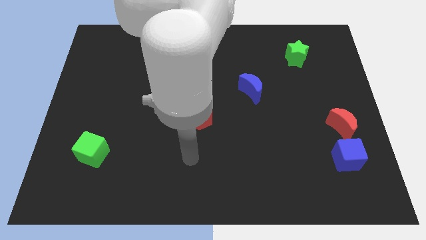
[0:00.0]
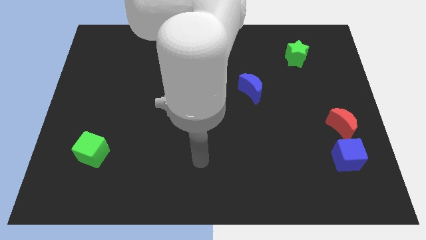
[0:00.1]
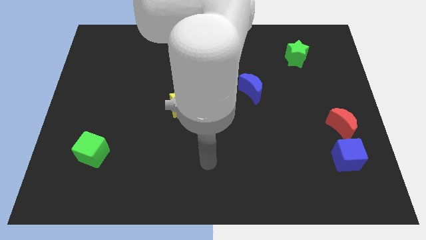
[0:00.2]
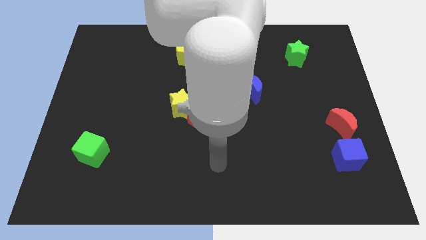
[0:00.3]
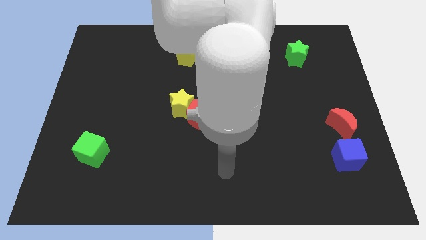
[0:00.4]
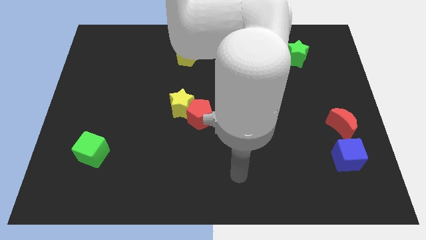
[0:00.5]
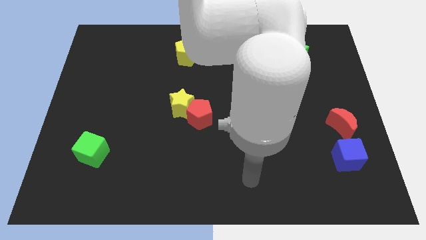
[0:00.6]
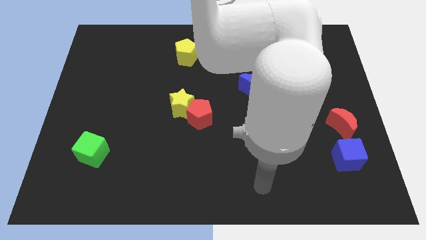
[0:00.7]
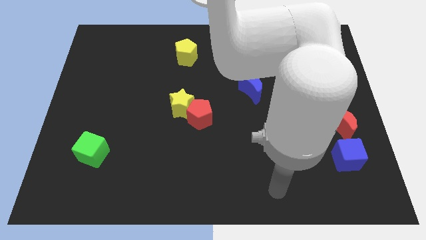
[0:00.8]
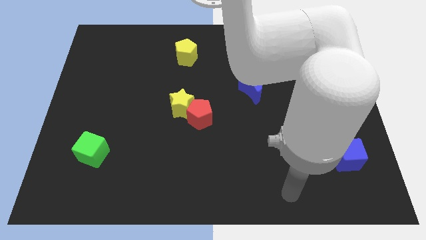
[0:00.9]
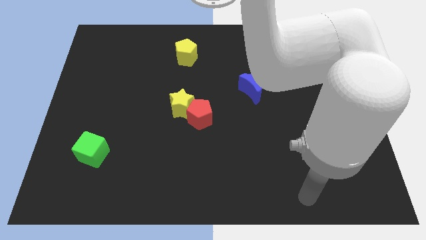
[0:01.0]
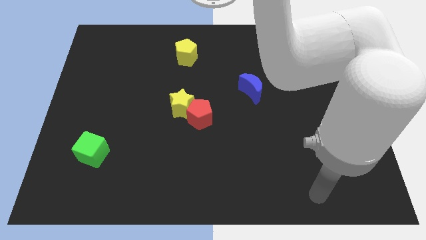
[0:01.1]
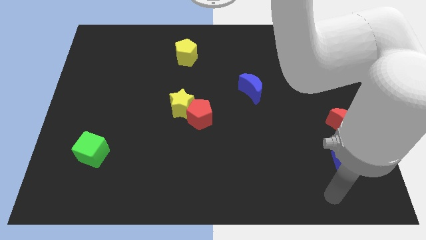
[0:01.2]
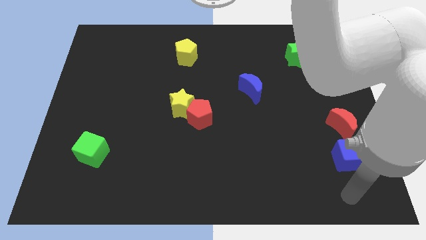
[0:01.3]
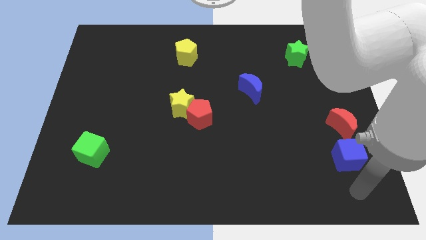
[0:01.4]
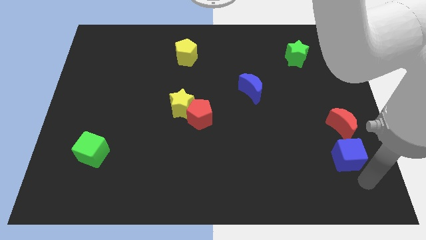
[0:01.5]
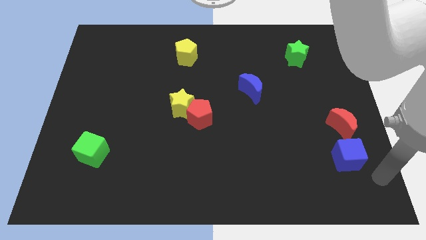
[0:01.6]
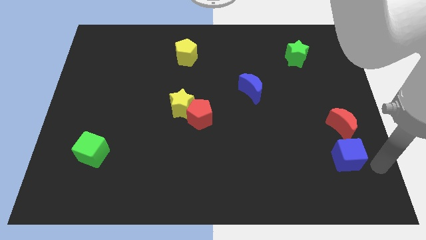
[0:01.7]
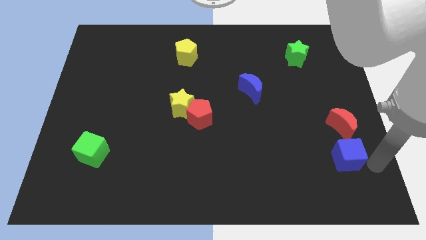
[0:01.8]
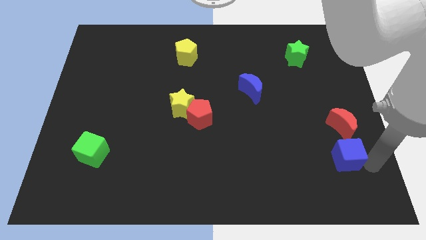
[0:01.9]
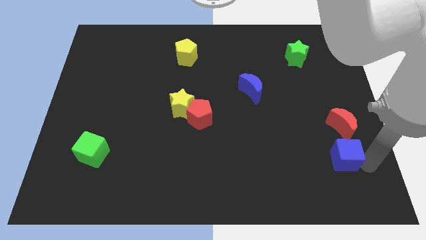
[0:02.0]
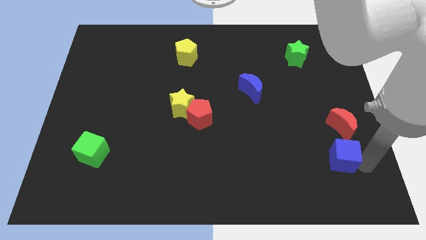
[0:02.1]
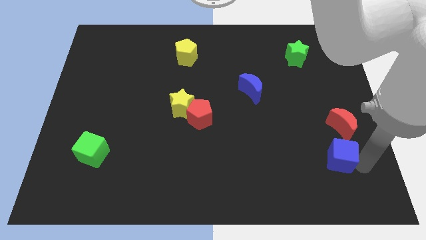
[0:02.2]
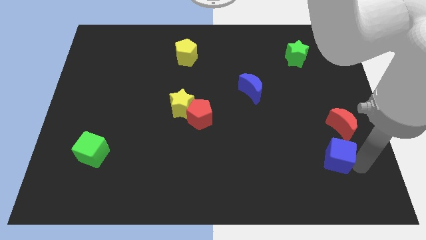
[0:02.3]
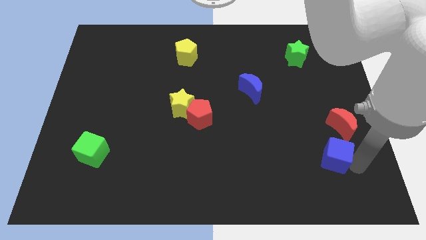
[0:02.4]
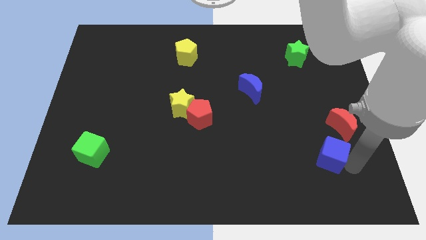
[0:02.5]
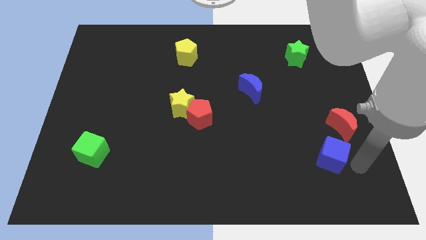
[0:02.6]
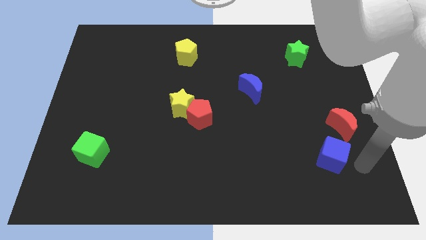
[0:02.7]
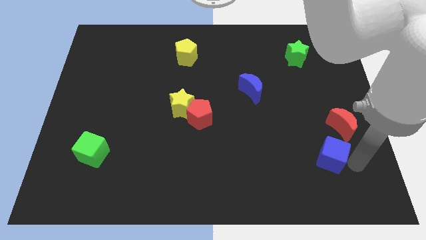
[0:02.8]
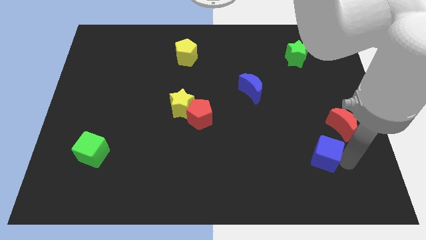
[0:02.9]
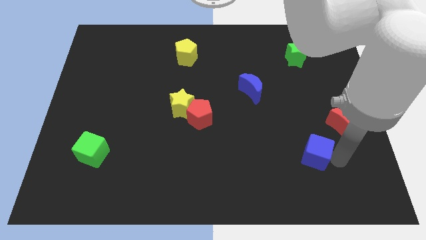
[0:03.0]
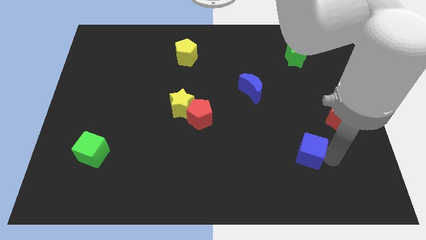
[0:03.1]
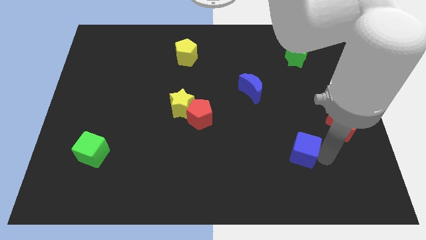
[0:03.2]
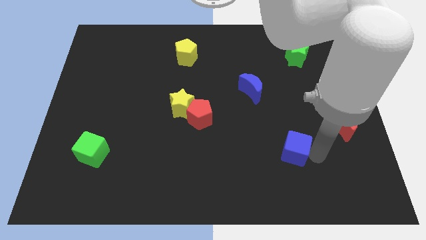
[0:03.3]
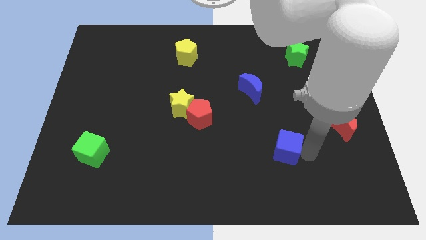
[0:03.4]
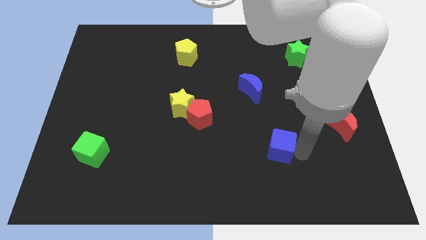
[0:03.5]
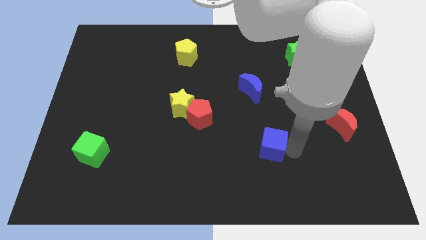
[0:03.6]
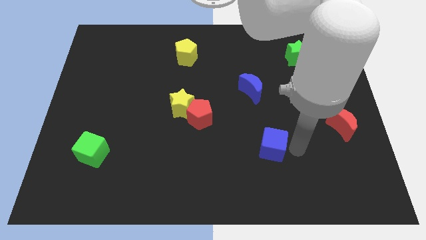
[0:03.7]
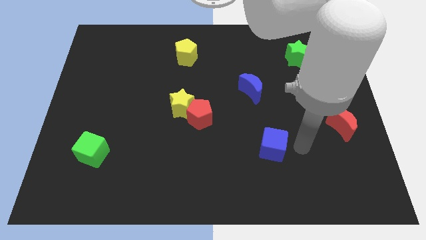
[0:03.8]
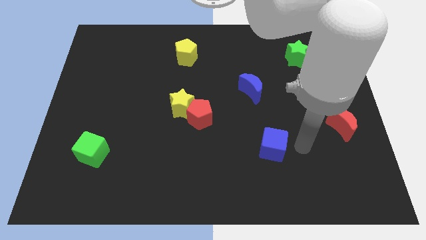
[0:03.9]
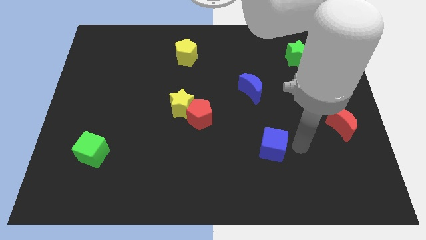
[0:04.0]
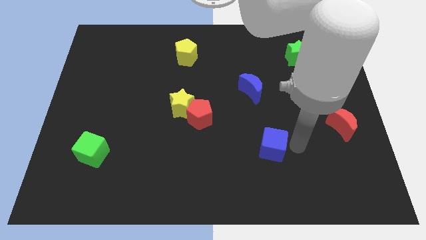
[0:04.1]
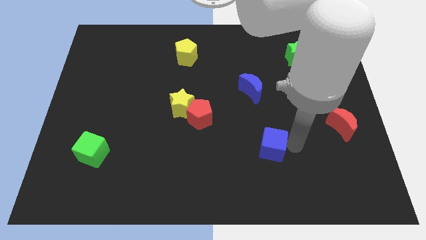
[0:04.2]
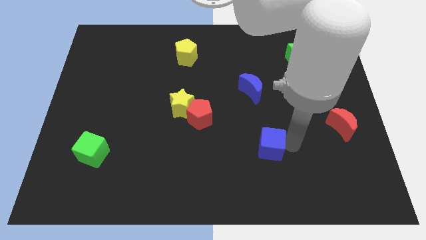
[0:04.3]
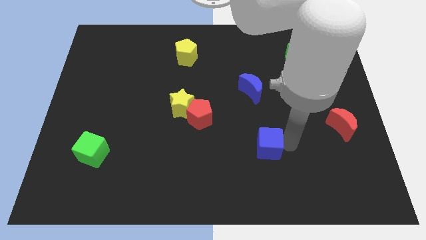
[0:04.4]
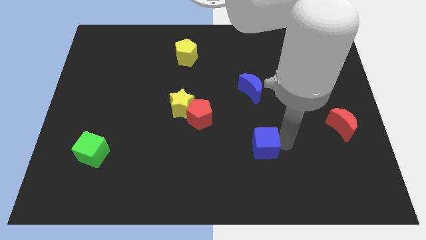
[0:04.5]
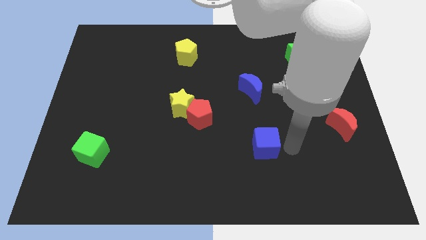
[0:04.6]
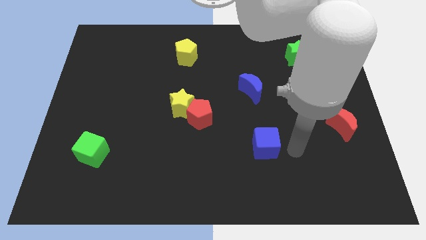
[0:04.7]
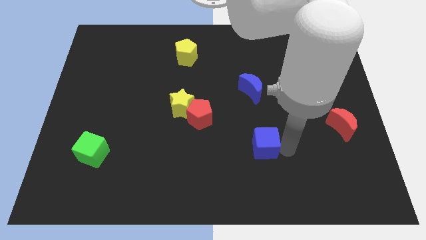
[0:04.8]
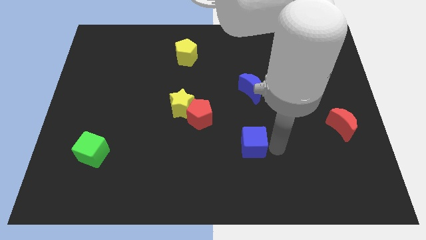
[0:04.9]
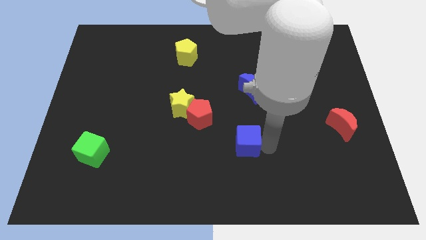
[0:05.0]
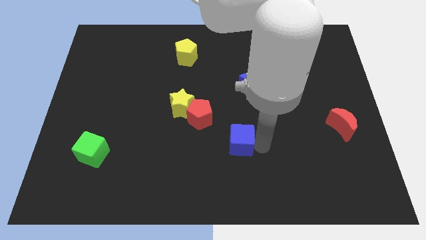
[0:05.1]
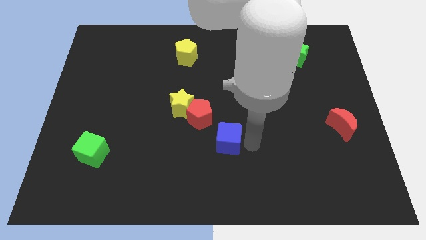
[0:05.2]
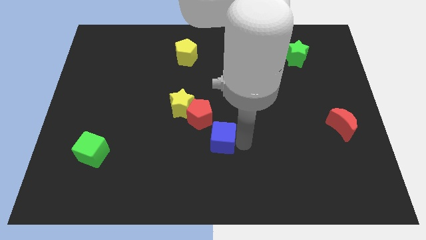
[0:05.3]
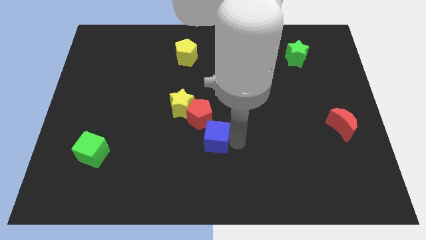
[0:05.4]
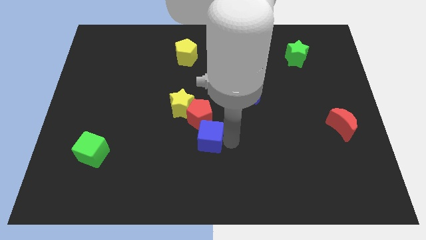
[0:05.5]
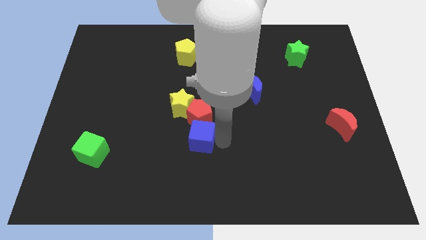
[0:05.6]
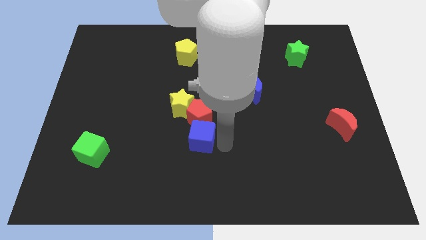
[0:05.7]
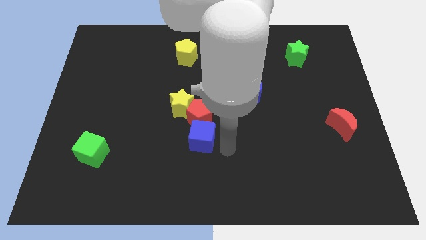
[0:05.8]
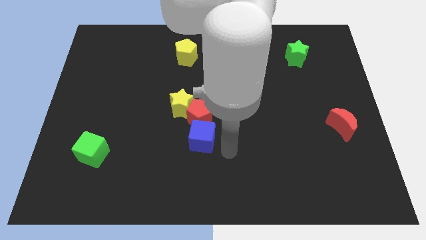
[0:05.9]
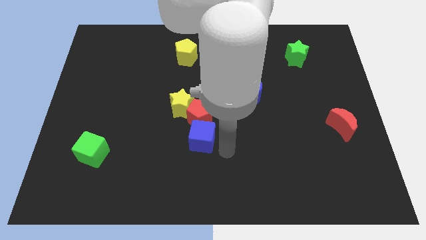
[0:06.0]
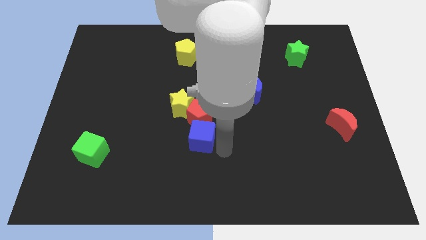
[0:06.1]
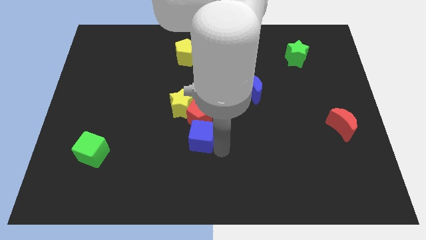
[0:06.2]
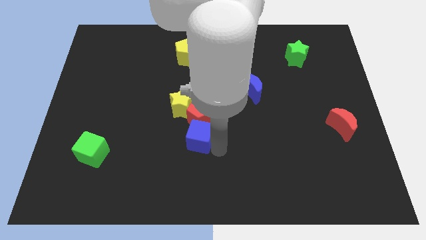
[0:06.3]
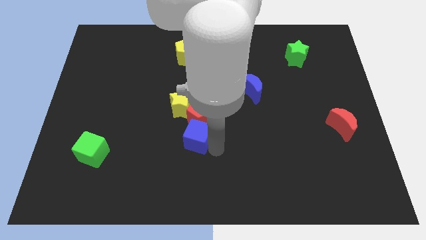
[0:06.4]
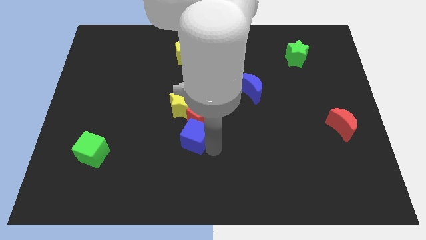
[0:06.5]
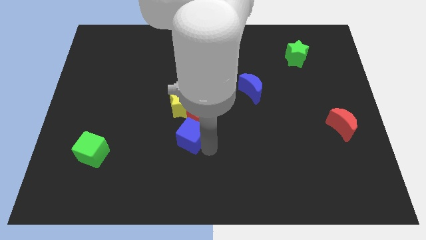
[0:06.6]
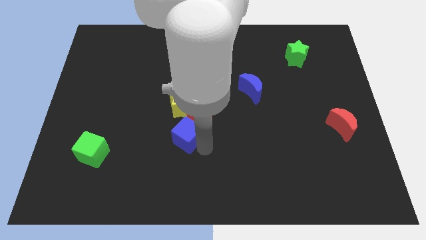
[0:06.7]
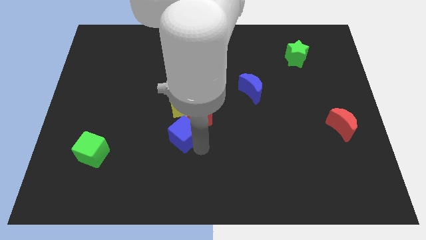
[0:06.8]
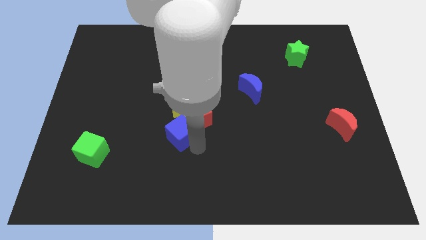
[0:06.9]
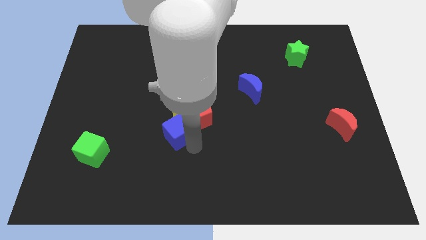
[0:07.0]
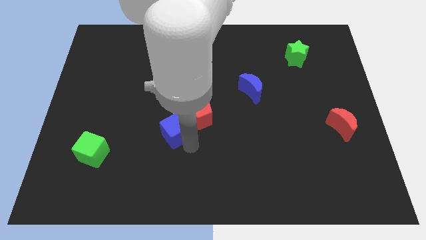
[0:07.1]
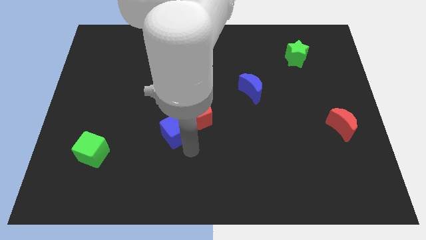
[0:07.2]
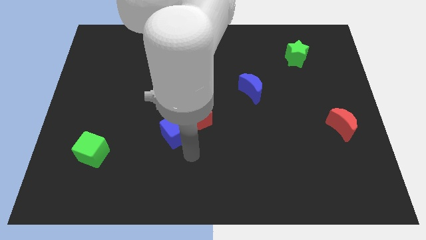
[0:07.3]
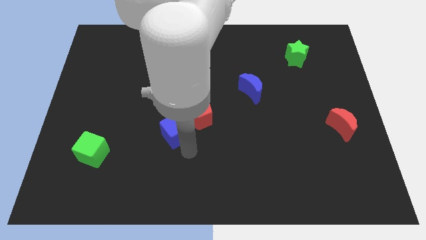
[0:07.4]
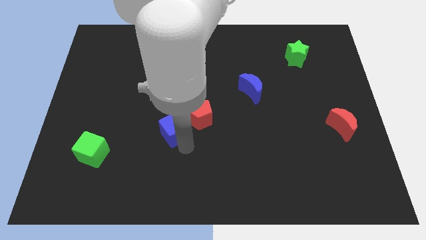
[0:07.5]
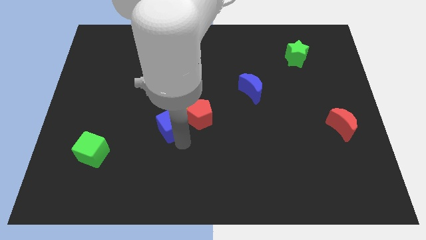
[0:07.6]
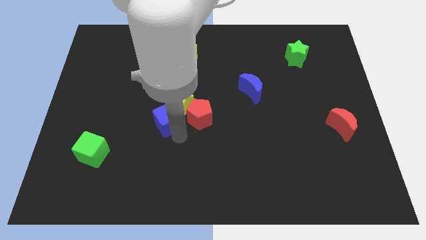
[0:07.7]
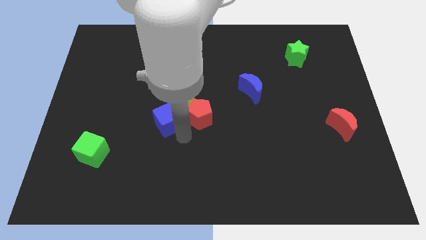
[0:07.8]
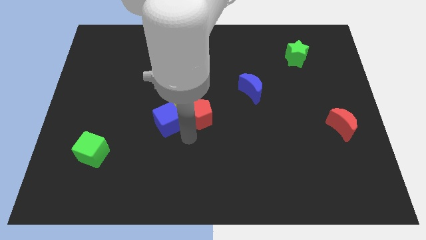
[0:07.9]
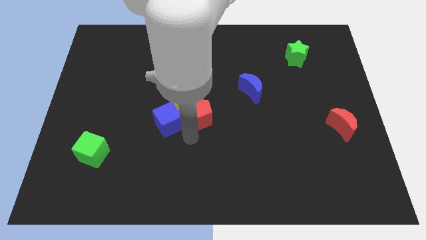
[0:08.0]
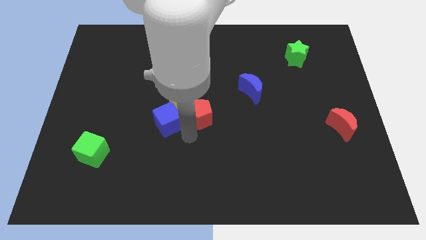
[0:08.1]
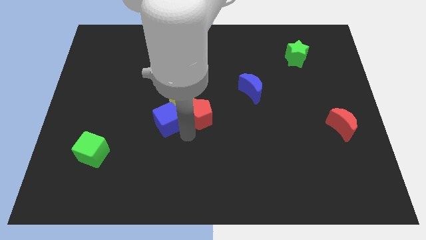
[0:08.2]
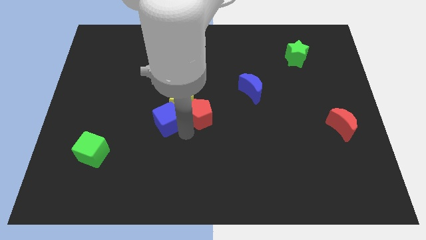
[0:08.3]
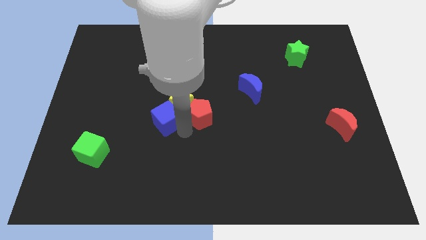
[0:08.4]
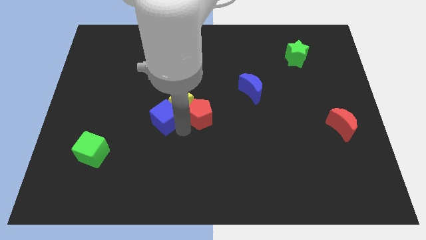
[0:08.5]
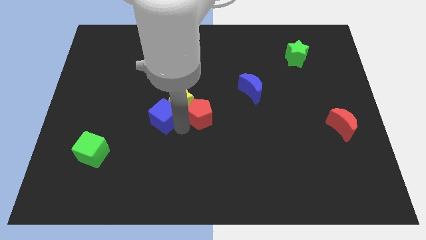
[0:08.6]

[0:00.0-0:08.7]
push the blue cube just left of the yellow star
